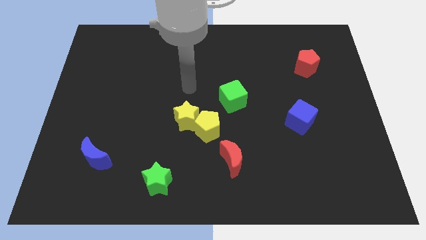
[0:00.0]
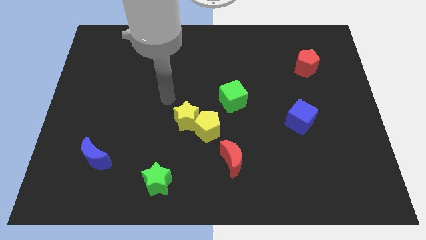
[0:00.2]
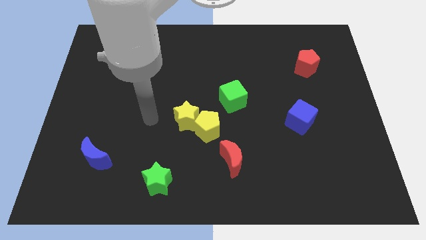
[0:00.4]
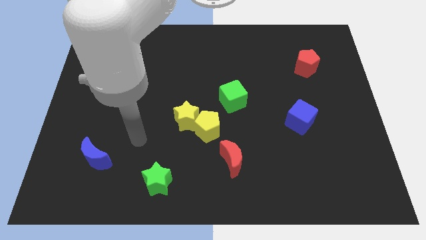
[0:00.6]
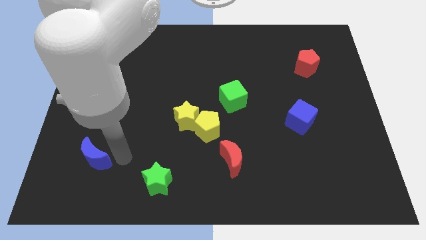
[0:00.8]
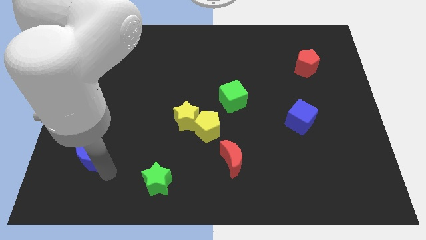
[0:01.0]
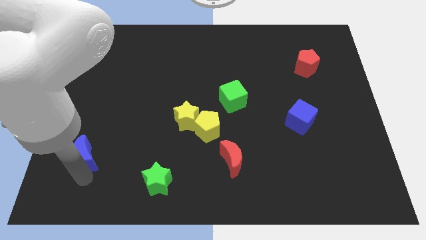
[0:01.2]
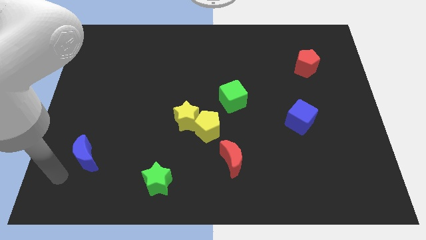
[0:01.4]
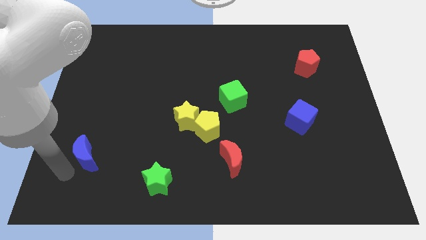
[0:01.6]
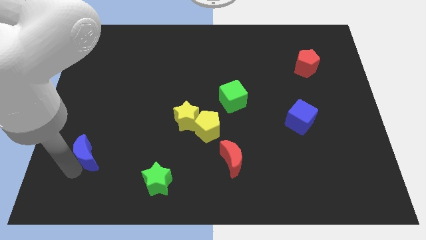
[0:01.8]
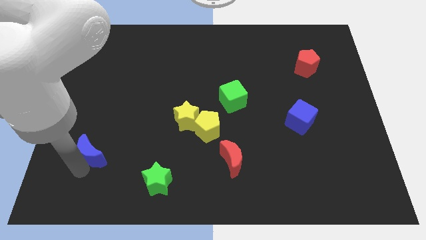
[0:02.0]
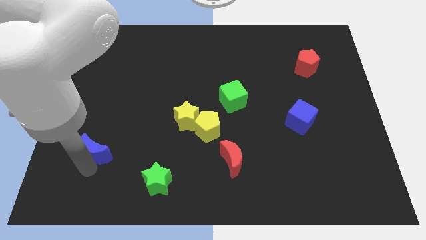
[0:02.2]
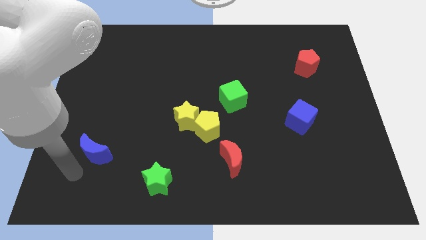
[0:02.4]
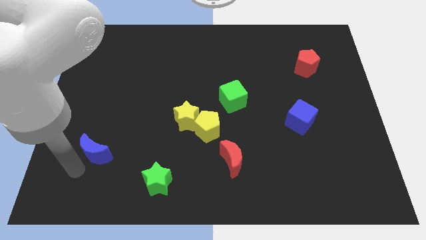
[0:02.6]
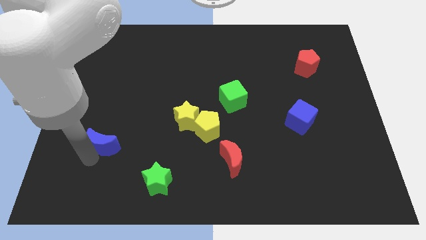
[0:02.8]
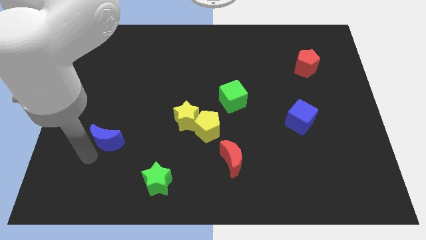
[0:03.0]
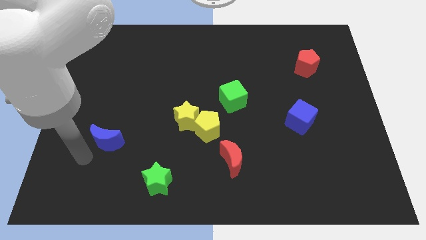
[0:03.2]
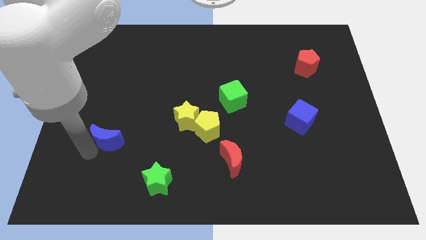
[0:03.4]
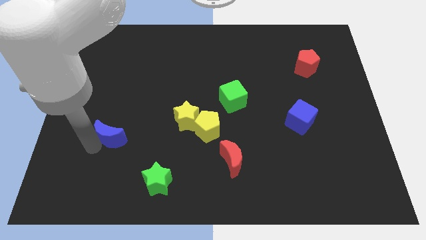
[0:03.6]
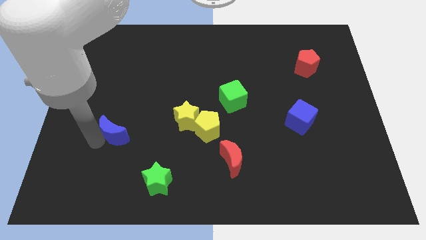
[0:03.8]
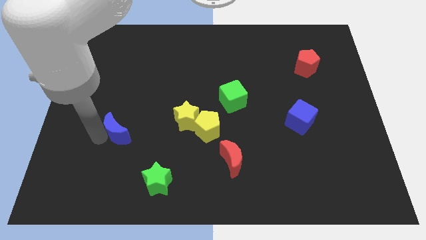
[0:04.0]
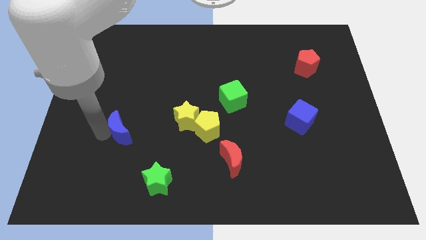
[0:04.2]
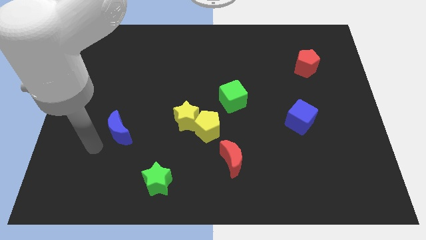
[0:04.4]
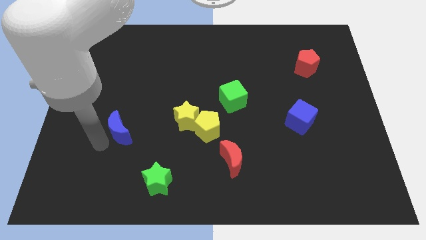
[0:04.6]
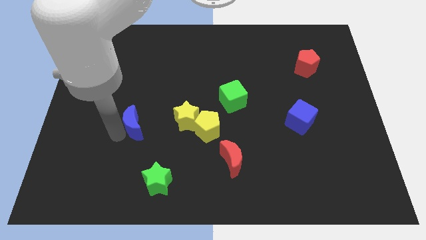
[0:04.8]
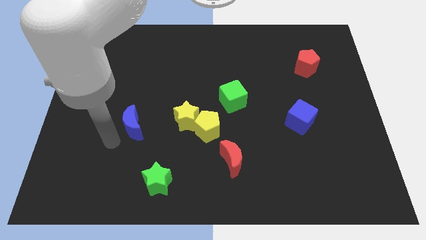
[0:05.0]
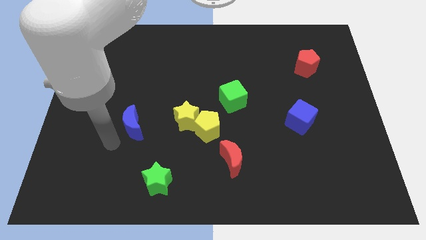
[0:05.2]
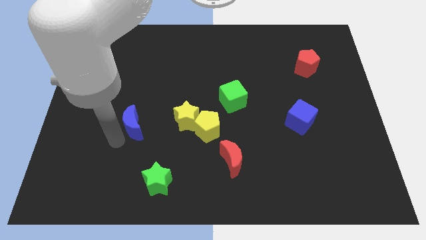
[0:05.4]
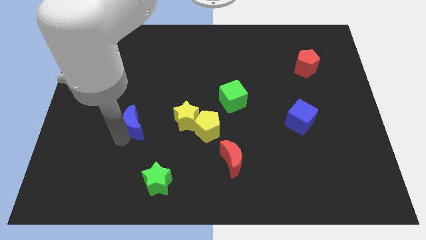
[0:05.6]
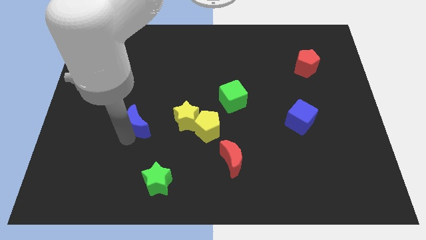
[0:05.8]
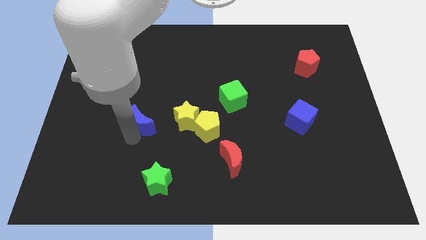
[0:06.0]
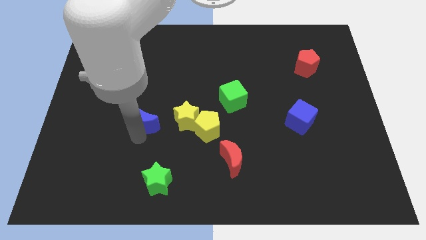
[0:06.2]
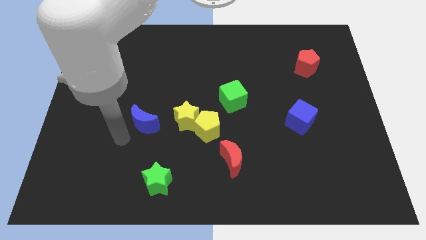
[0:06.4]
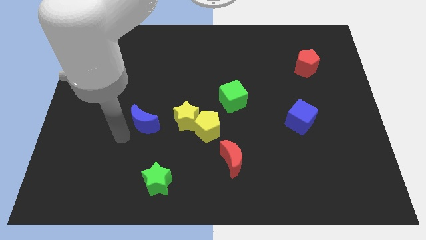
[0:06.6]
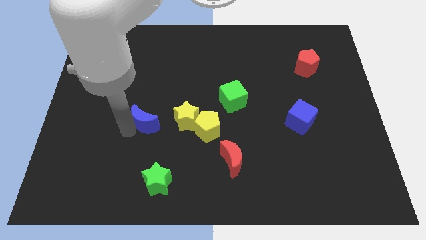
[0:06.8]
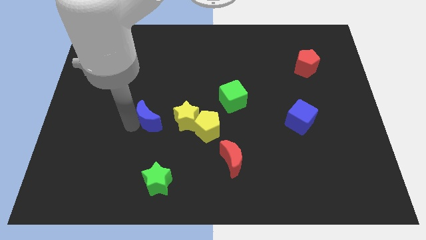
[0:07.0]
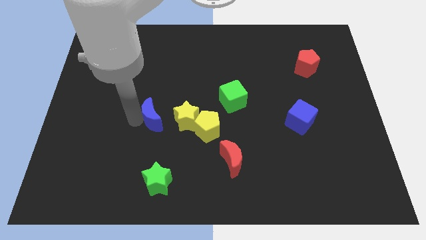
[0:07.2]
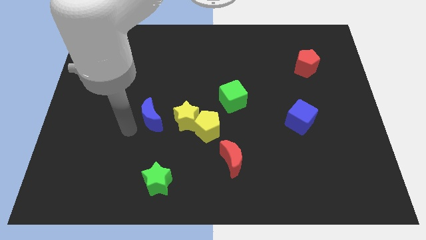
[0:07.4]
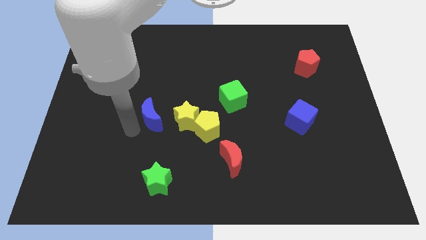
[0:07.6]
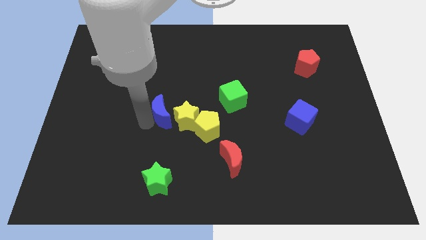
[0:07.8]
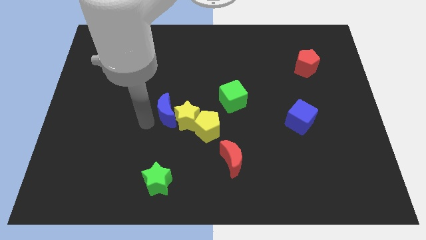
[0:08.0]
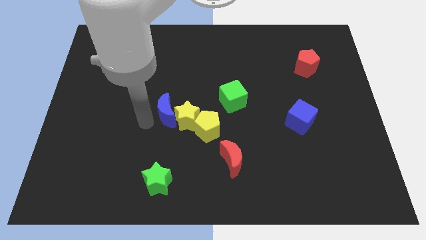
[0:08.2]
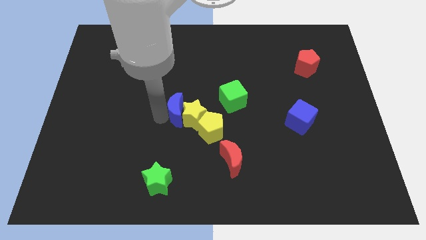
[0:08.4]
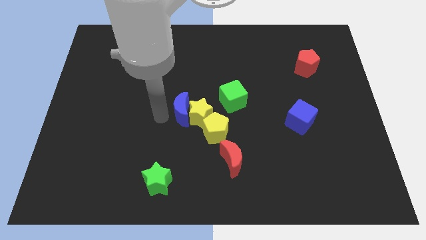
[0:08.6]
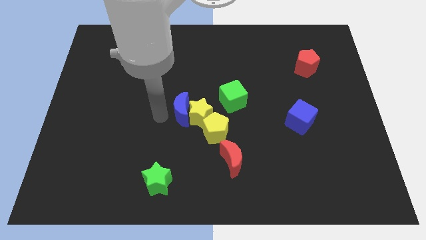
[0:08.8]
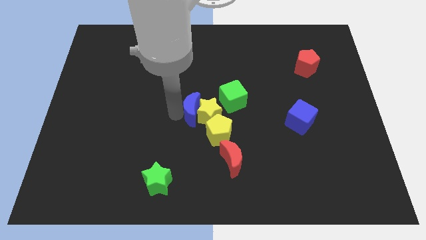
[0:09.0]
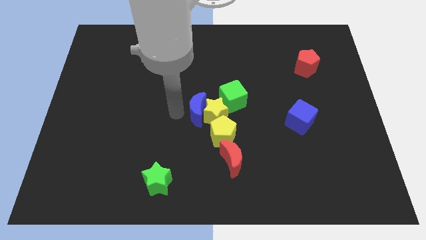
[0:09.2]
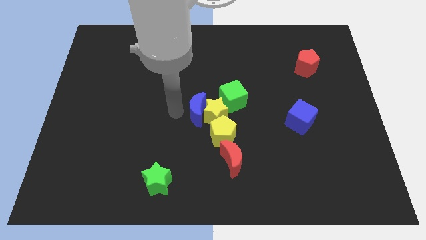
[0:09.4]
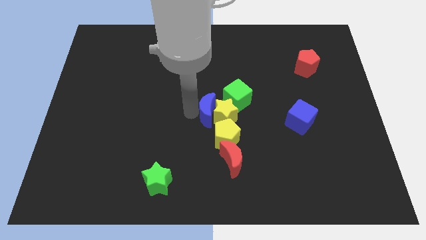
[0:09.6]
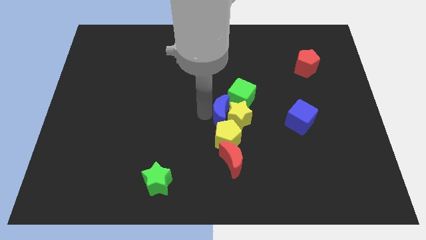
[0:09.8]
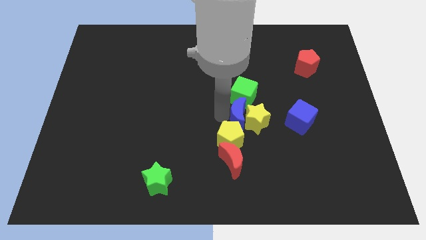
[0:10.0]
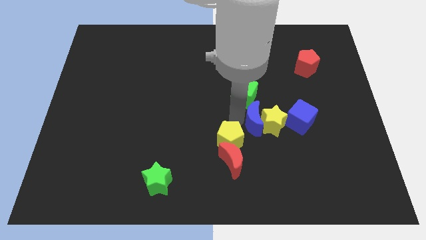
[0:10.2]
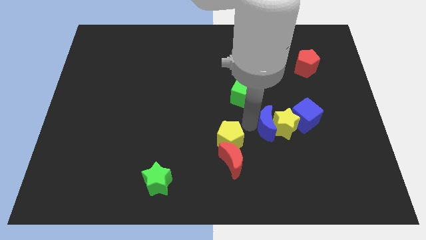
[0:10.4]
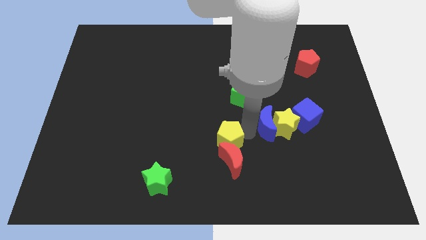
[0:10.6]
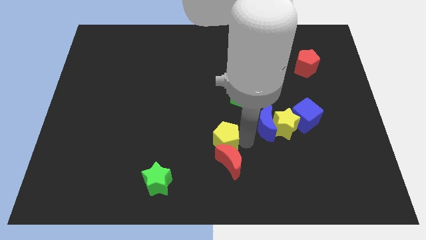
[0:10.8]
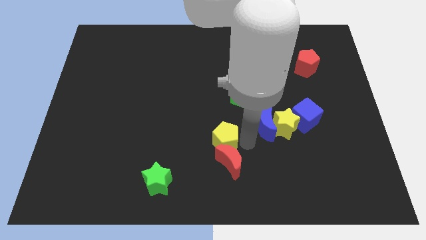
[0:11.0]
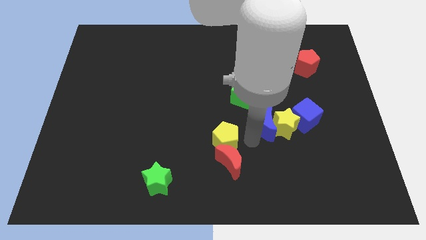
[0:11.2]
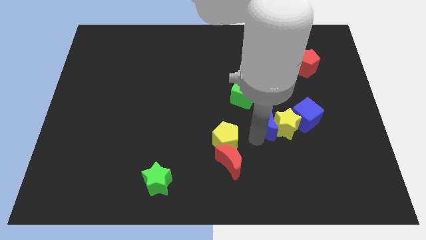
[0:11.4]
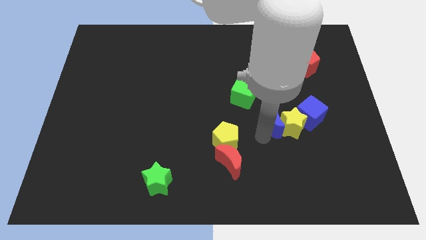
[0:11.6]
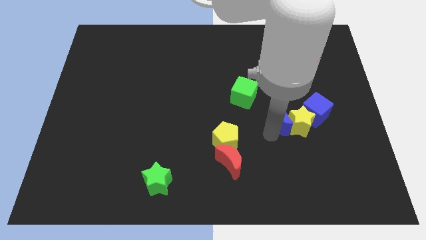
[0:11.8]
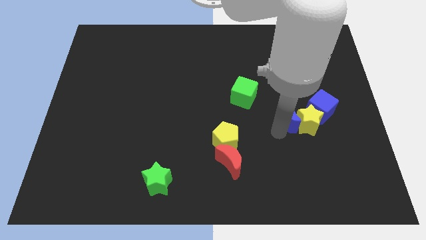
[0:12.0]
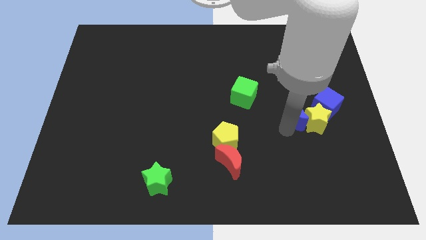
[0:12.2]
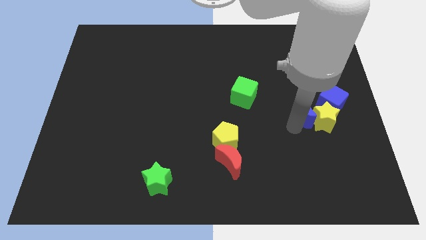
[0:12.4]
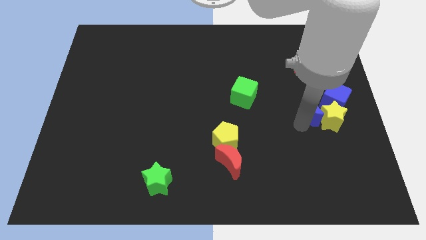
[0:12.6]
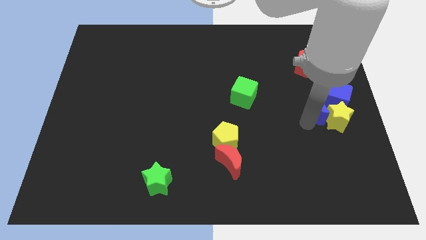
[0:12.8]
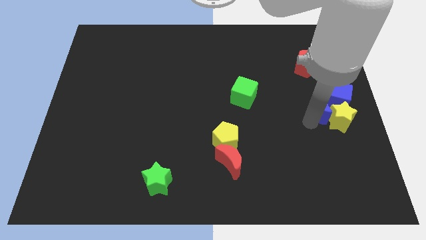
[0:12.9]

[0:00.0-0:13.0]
move the blue moon next to the blue cube

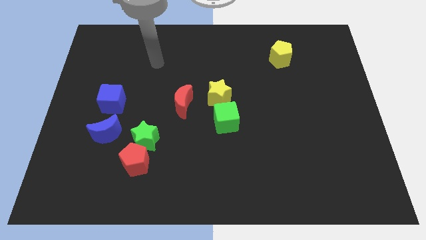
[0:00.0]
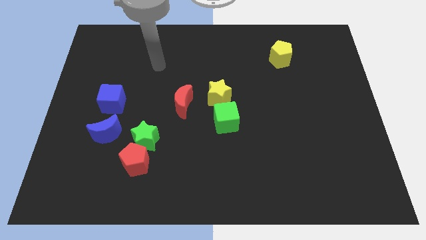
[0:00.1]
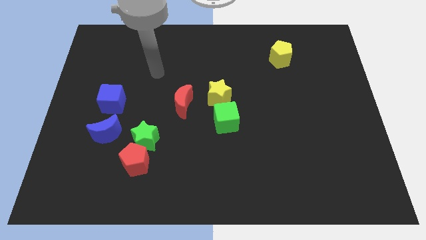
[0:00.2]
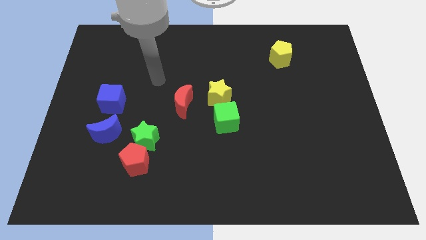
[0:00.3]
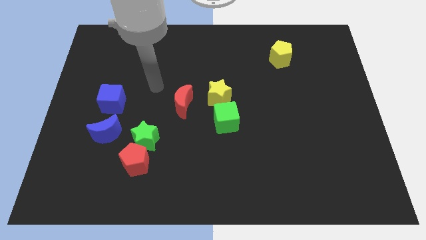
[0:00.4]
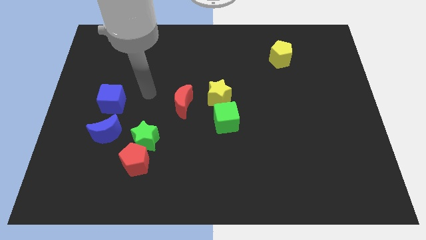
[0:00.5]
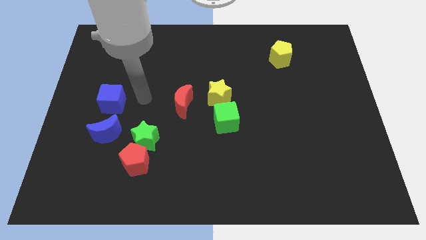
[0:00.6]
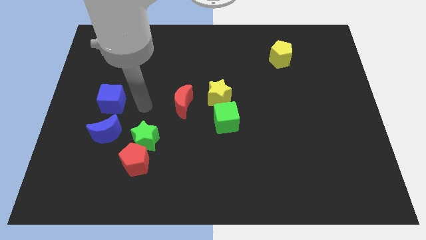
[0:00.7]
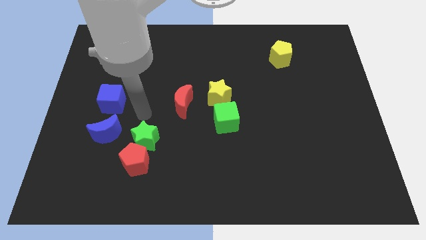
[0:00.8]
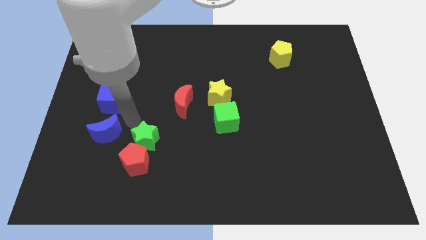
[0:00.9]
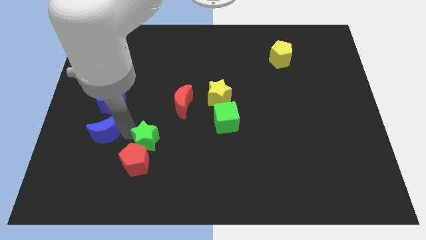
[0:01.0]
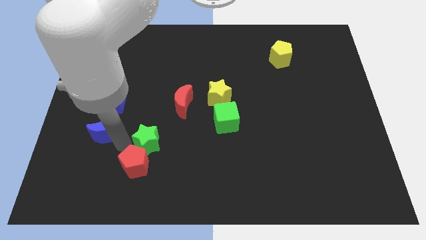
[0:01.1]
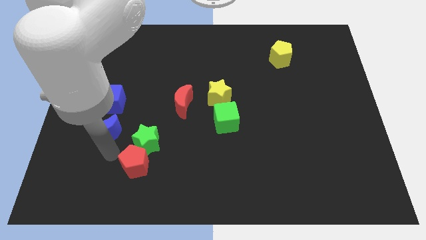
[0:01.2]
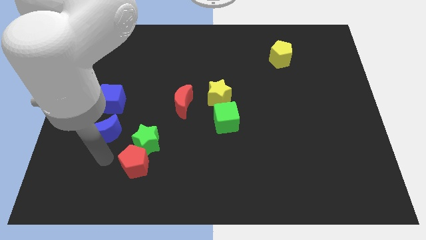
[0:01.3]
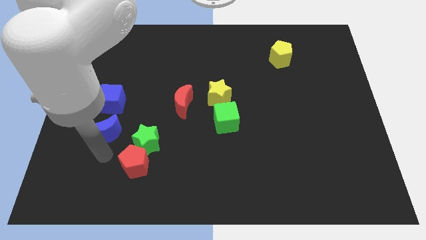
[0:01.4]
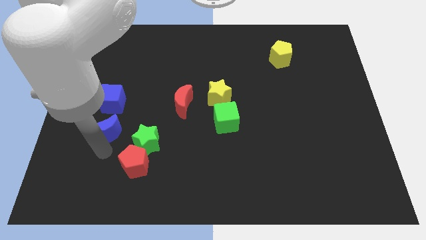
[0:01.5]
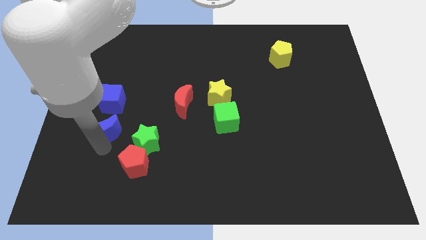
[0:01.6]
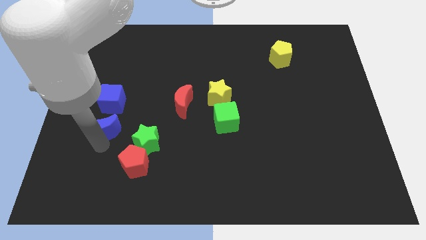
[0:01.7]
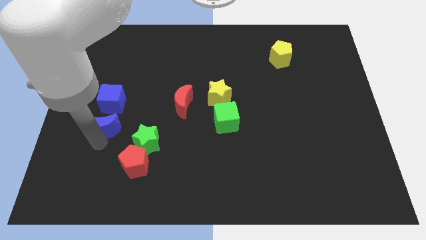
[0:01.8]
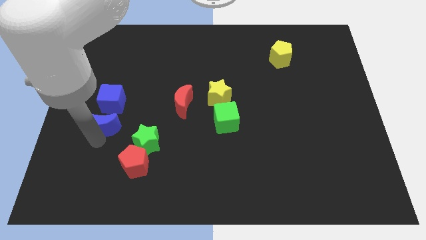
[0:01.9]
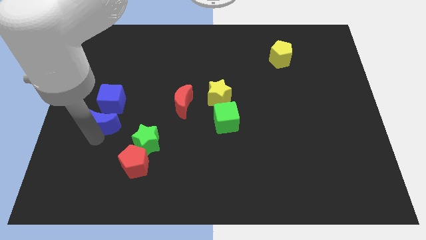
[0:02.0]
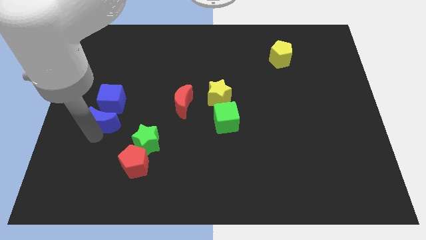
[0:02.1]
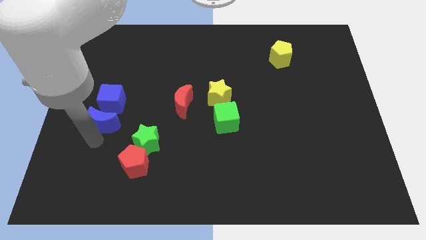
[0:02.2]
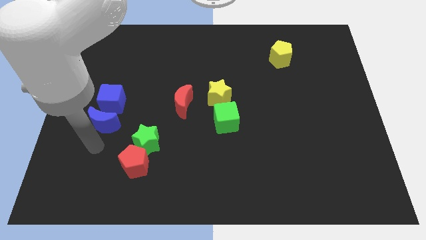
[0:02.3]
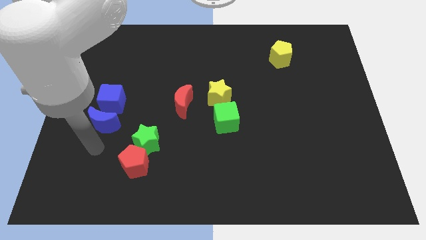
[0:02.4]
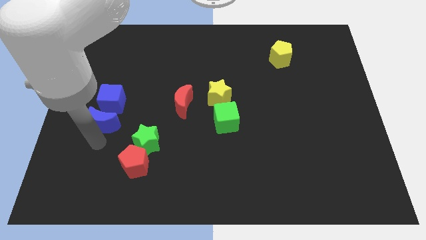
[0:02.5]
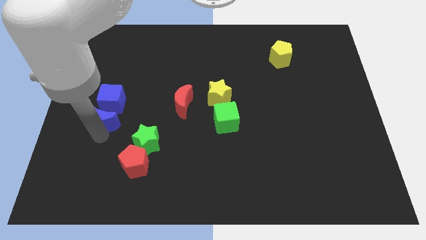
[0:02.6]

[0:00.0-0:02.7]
push the blue moon to the blue cube
